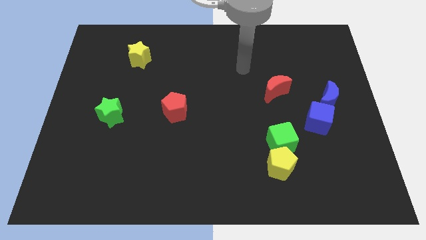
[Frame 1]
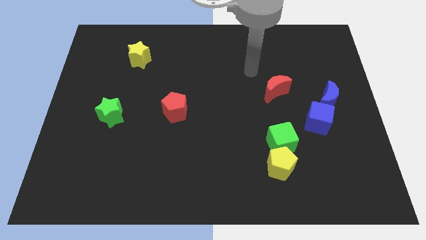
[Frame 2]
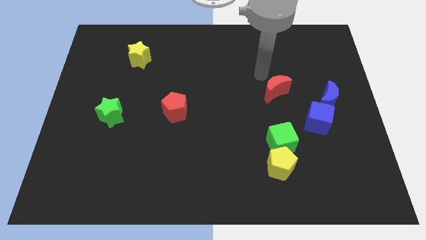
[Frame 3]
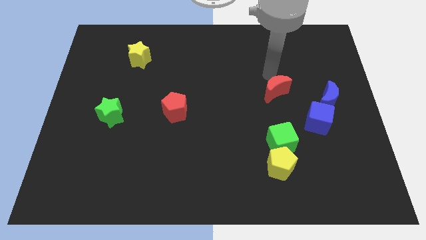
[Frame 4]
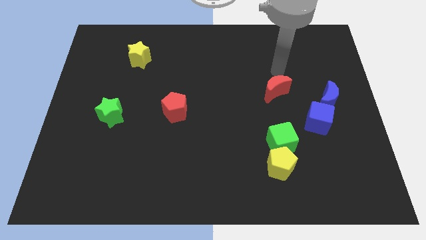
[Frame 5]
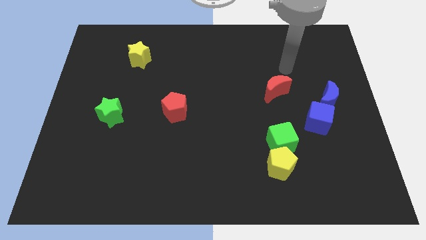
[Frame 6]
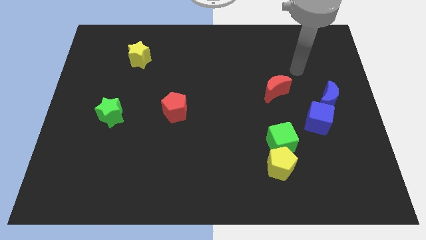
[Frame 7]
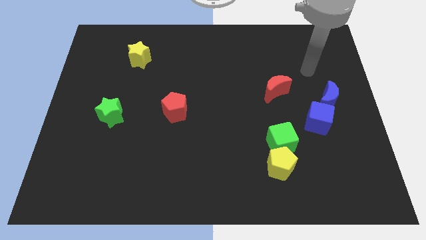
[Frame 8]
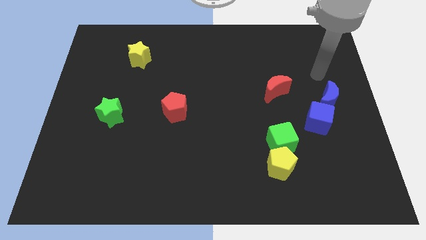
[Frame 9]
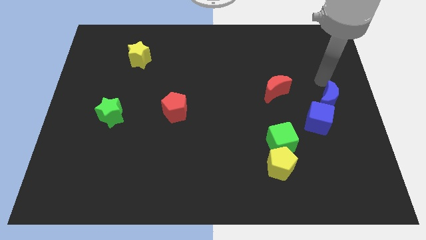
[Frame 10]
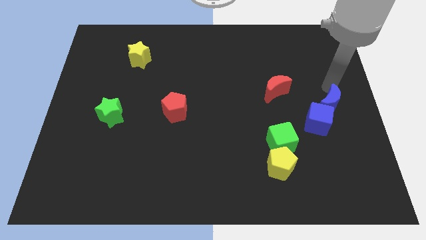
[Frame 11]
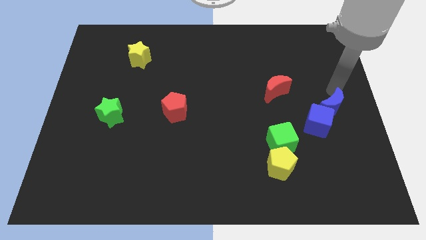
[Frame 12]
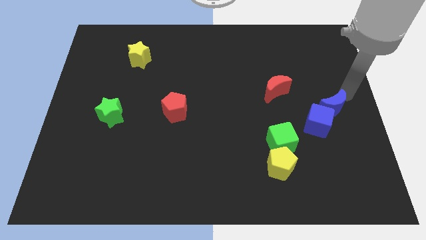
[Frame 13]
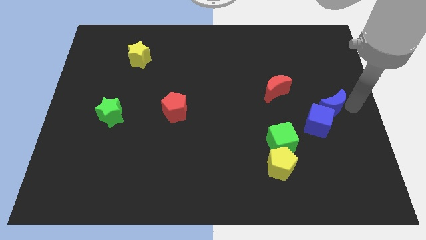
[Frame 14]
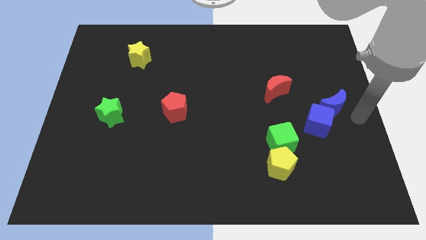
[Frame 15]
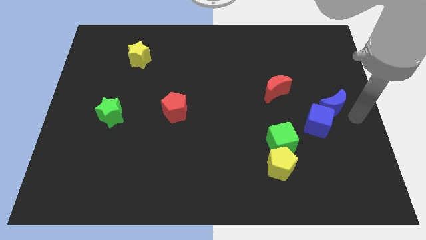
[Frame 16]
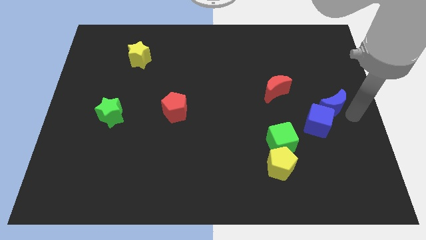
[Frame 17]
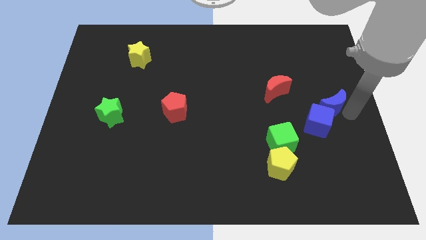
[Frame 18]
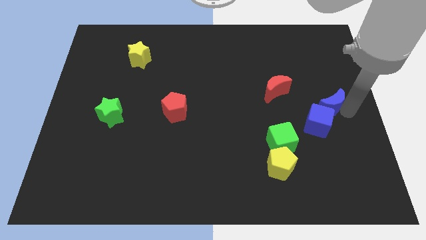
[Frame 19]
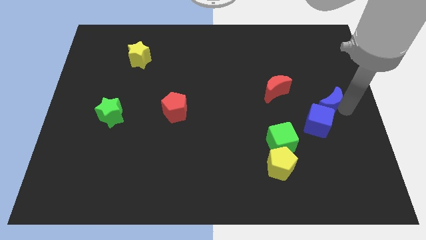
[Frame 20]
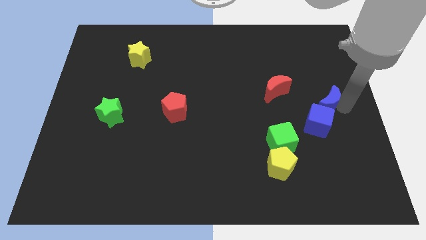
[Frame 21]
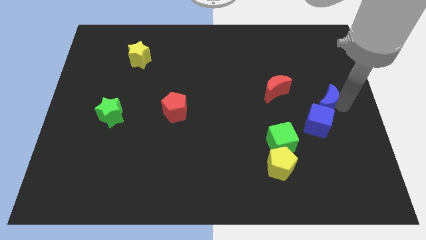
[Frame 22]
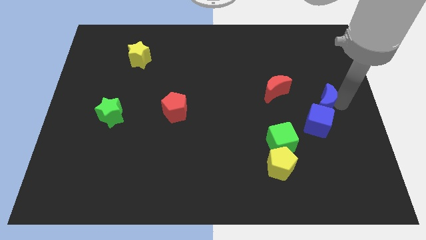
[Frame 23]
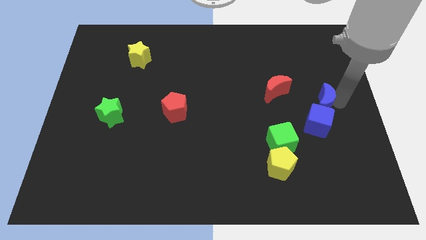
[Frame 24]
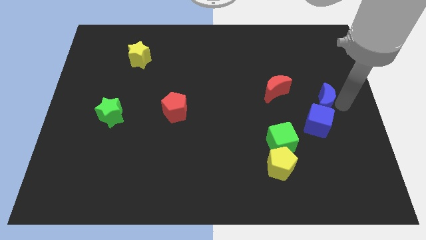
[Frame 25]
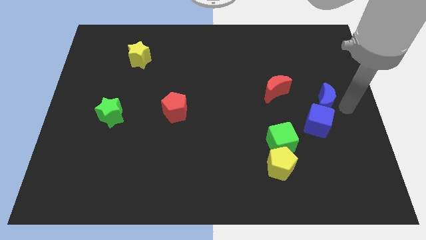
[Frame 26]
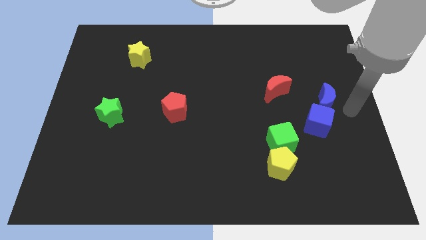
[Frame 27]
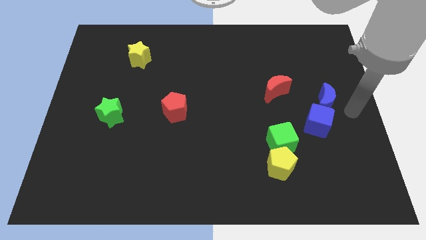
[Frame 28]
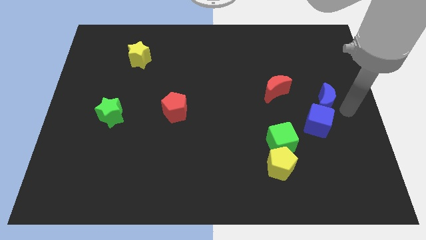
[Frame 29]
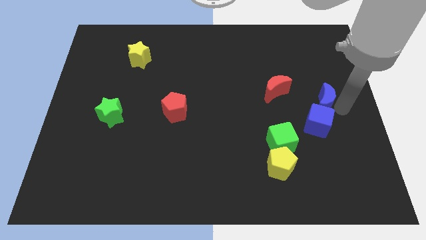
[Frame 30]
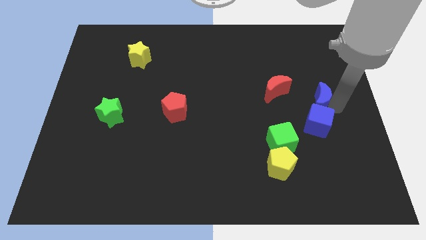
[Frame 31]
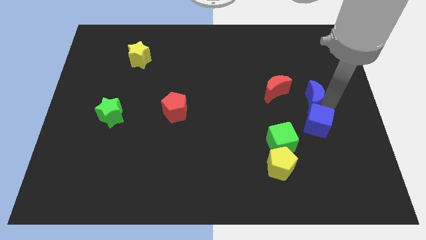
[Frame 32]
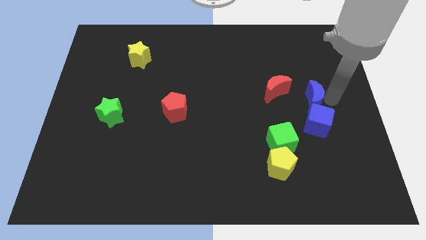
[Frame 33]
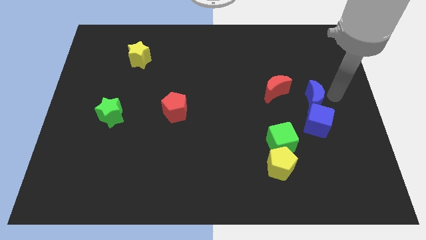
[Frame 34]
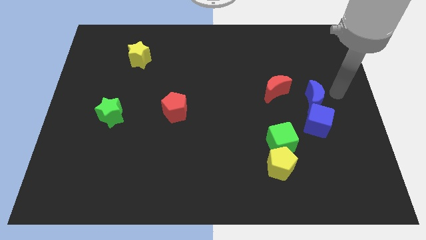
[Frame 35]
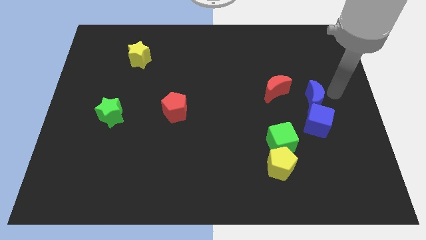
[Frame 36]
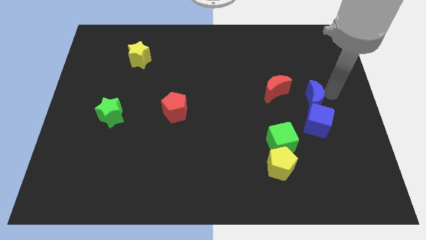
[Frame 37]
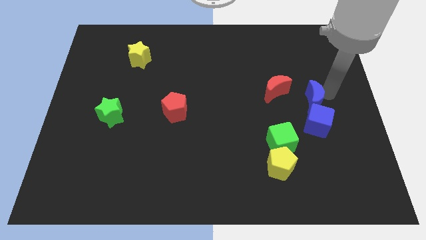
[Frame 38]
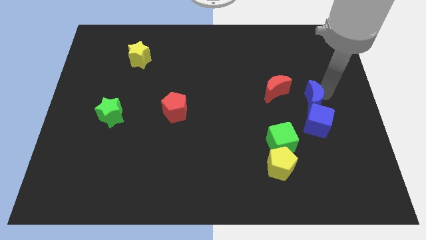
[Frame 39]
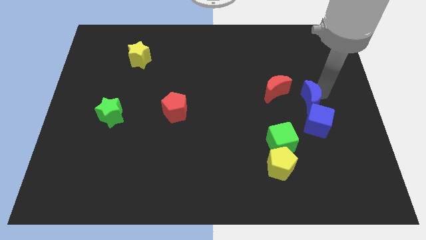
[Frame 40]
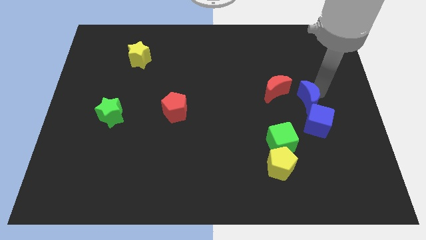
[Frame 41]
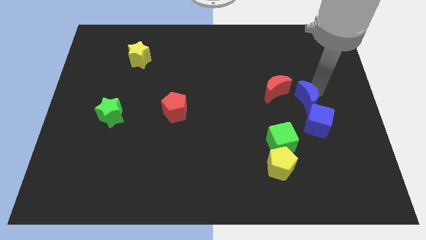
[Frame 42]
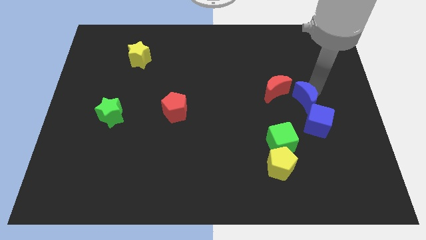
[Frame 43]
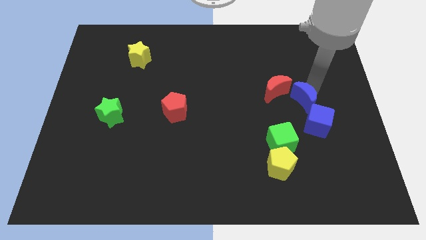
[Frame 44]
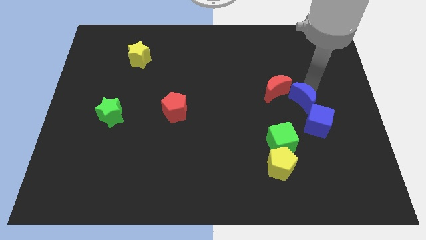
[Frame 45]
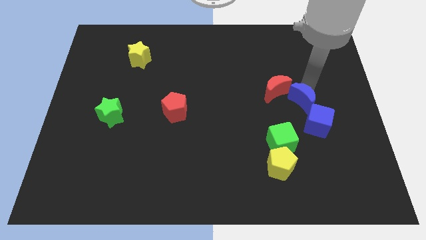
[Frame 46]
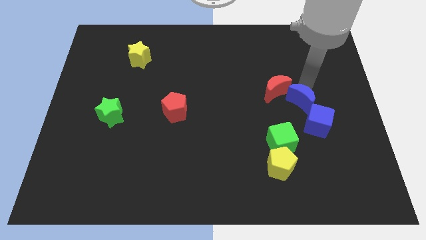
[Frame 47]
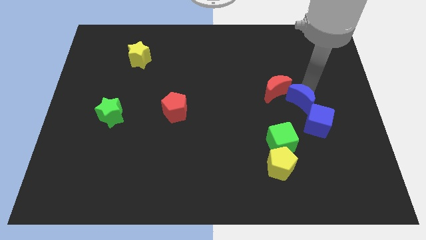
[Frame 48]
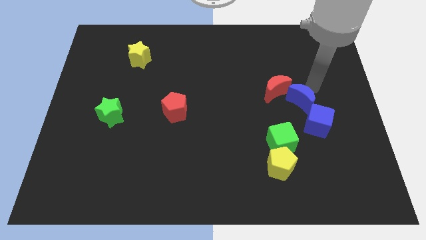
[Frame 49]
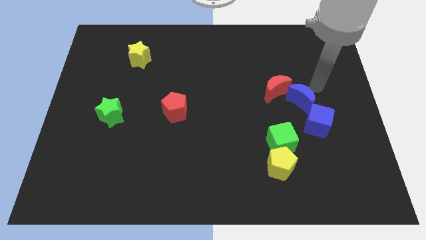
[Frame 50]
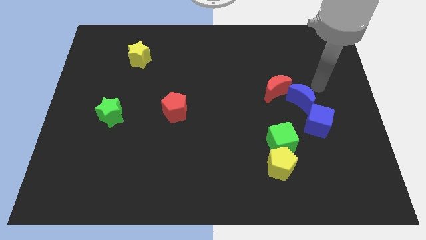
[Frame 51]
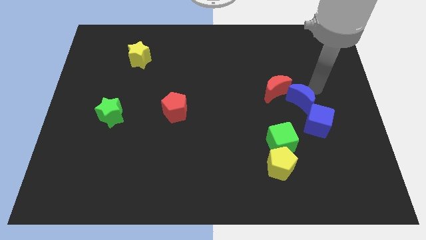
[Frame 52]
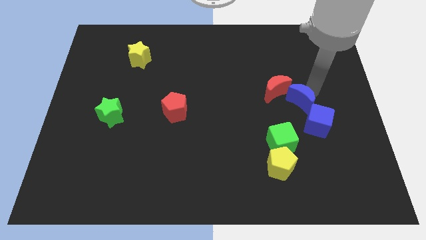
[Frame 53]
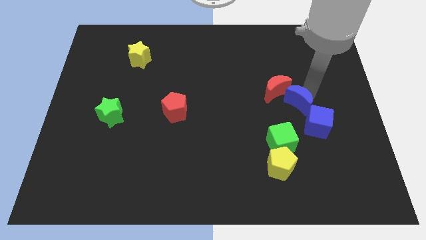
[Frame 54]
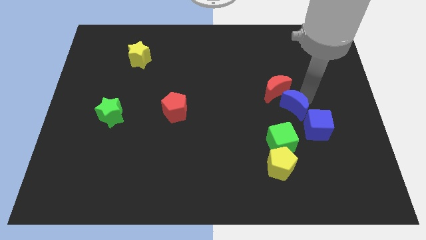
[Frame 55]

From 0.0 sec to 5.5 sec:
put the blue moon to the top side of the green cube

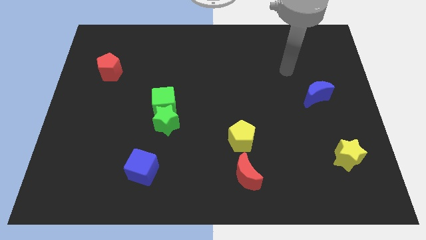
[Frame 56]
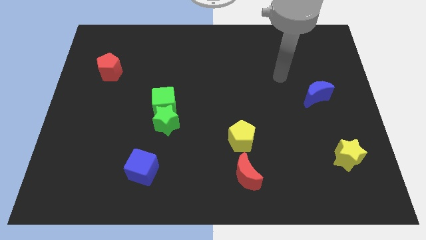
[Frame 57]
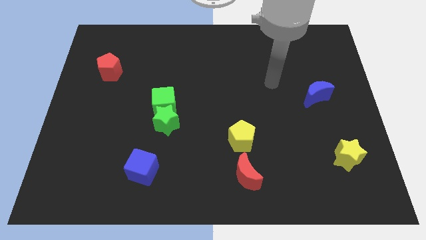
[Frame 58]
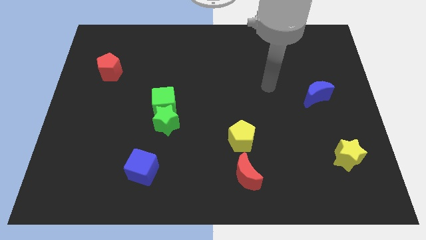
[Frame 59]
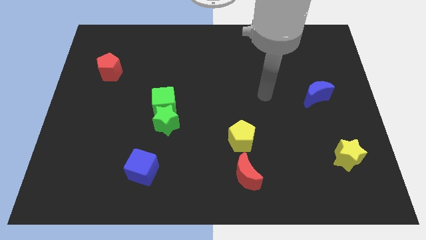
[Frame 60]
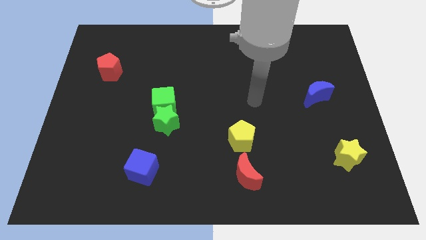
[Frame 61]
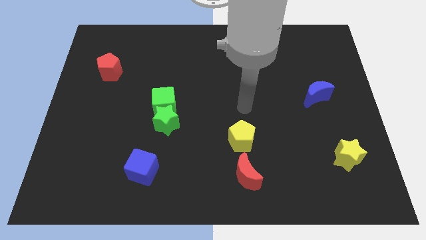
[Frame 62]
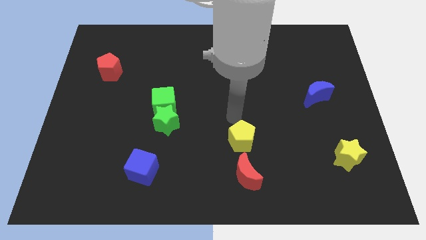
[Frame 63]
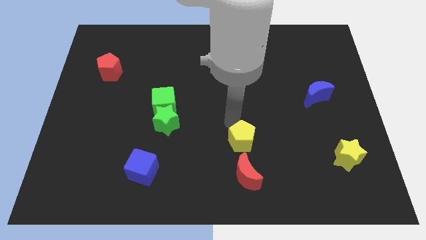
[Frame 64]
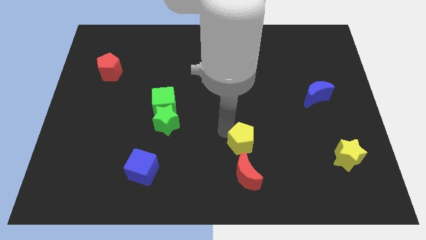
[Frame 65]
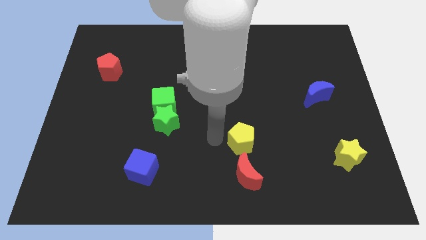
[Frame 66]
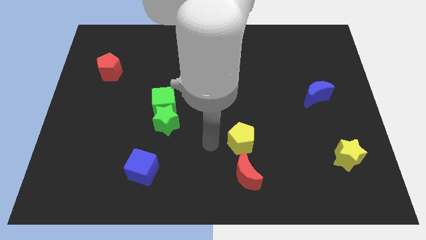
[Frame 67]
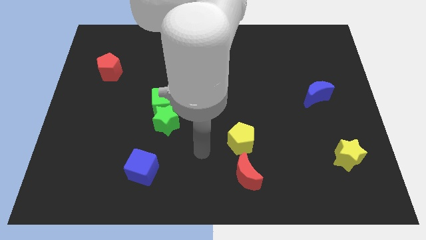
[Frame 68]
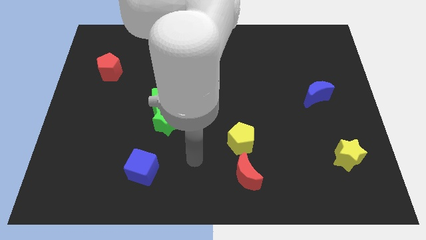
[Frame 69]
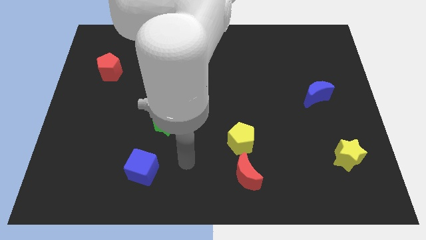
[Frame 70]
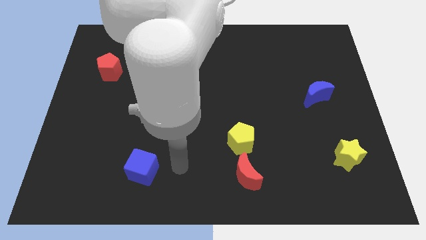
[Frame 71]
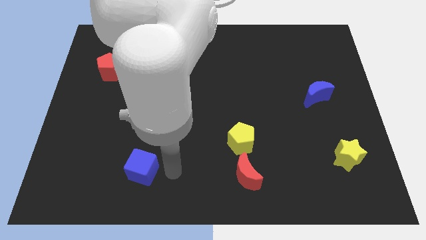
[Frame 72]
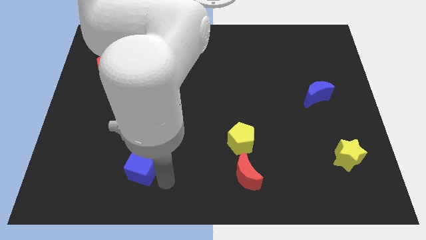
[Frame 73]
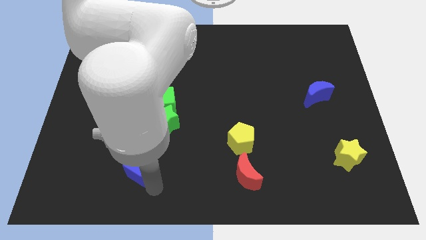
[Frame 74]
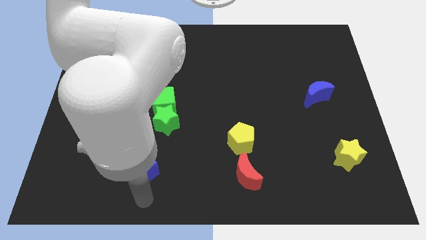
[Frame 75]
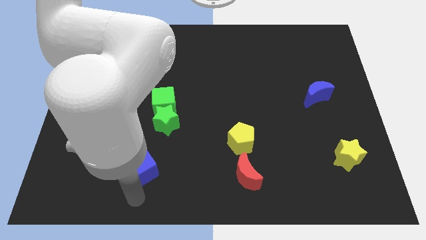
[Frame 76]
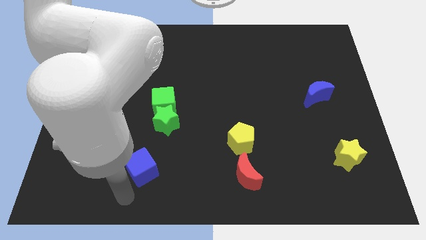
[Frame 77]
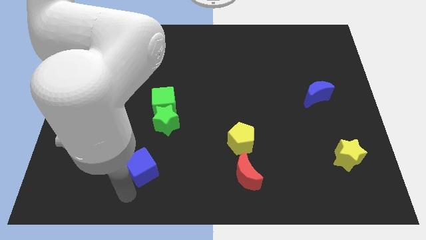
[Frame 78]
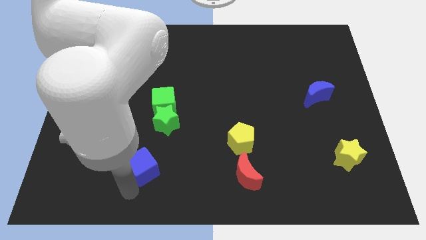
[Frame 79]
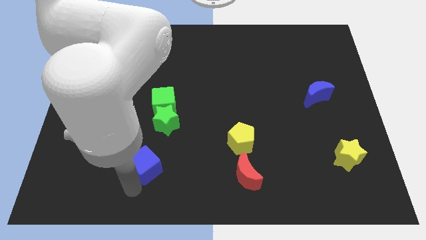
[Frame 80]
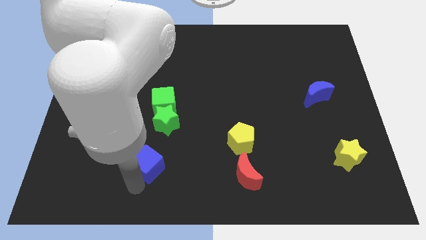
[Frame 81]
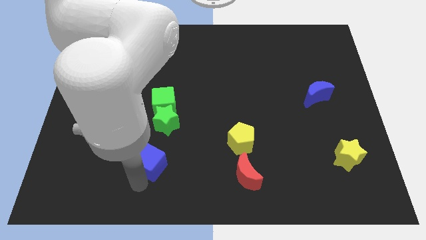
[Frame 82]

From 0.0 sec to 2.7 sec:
put the blue cube to the bottom of the green cube
